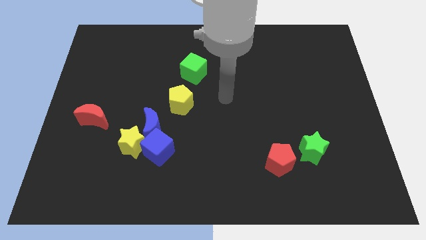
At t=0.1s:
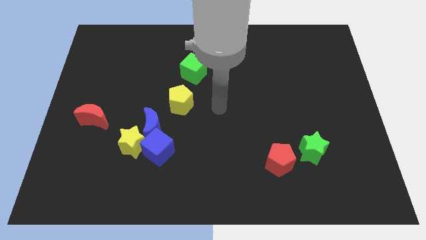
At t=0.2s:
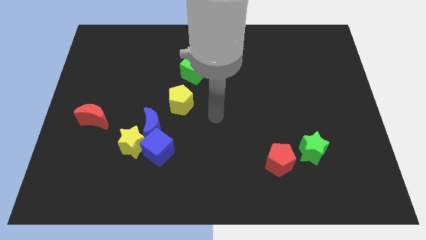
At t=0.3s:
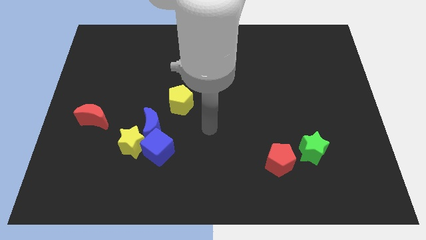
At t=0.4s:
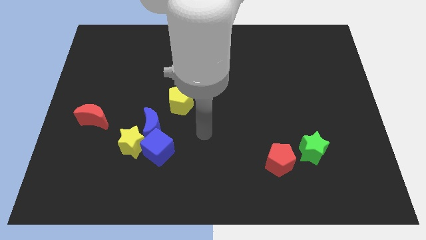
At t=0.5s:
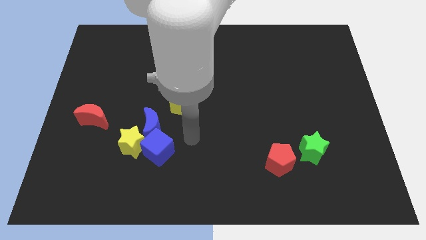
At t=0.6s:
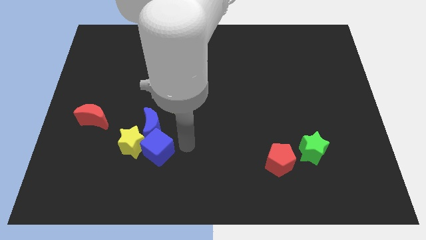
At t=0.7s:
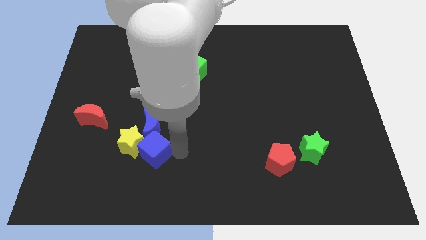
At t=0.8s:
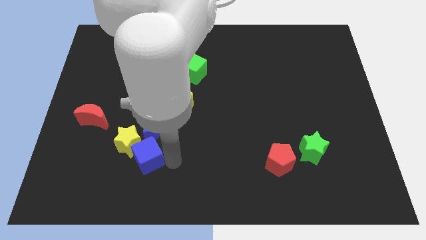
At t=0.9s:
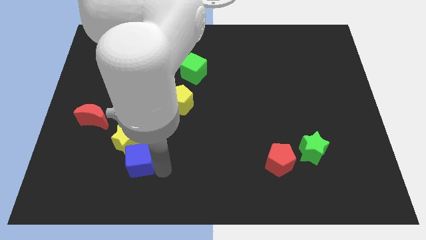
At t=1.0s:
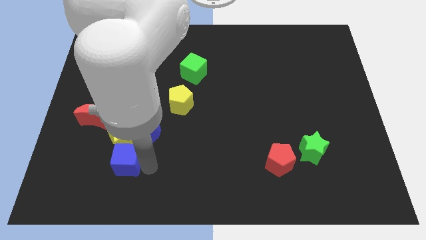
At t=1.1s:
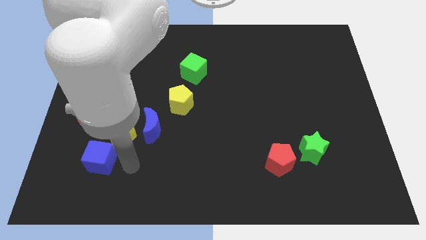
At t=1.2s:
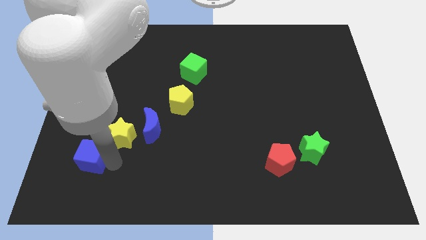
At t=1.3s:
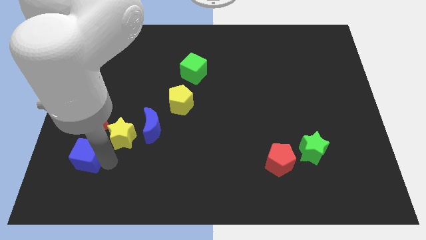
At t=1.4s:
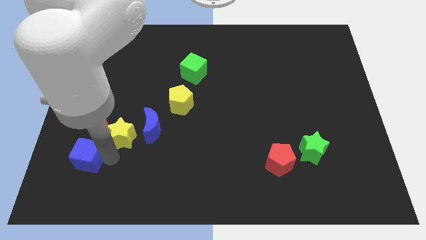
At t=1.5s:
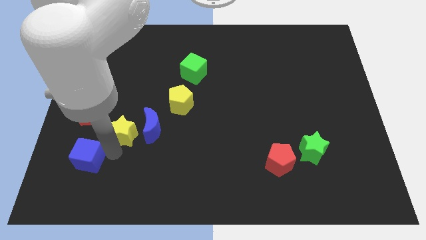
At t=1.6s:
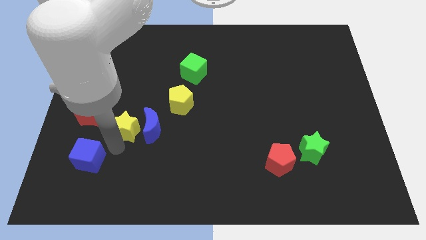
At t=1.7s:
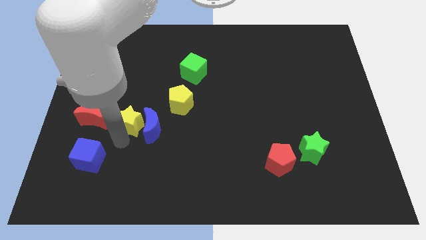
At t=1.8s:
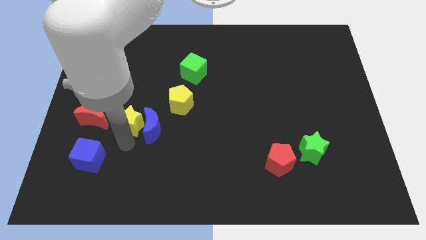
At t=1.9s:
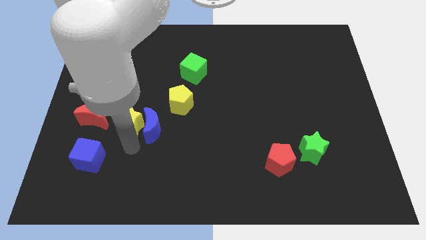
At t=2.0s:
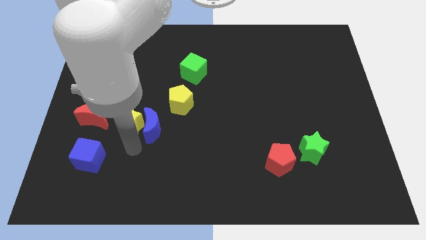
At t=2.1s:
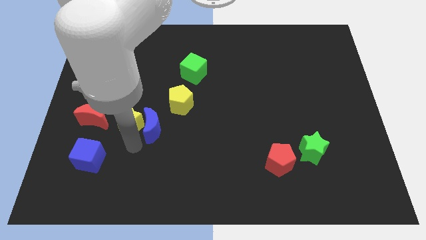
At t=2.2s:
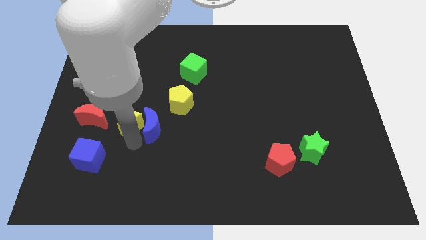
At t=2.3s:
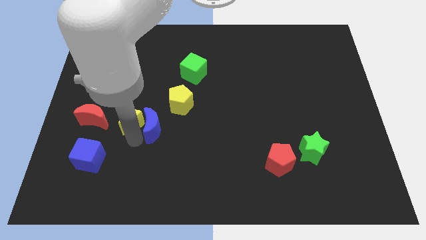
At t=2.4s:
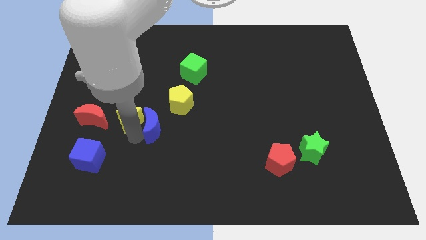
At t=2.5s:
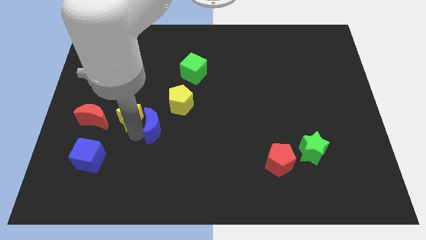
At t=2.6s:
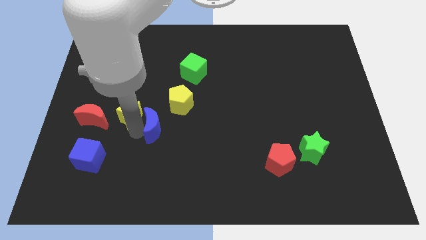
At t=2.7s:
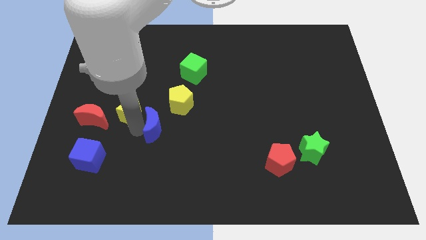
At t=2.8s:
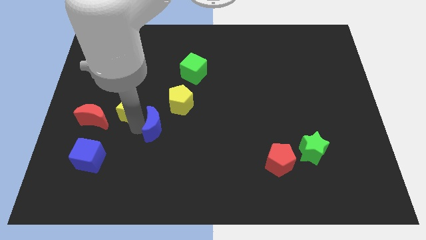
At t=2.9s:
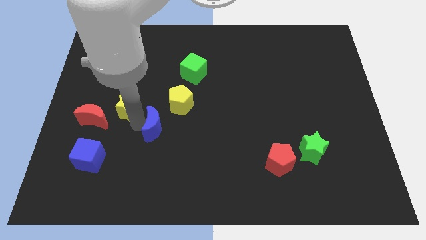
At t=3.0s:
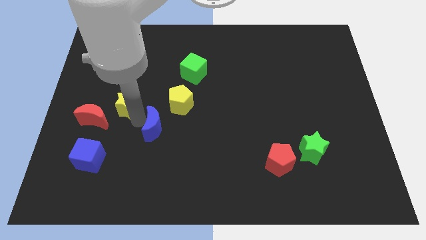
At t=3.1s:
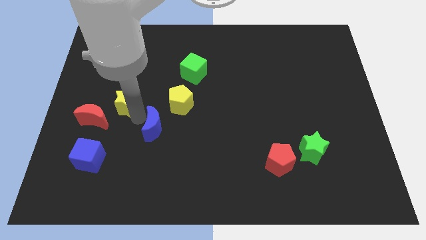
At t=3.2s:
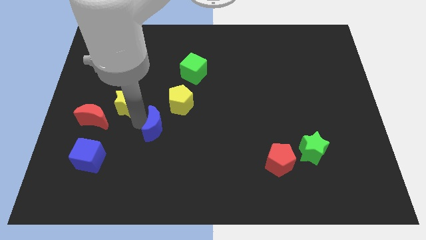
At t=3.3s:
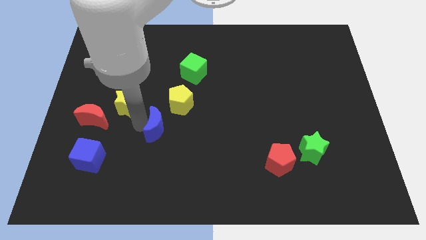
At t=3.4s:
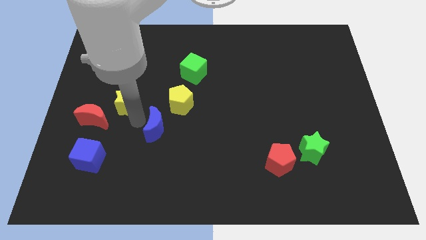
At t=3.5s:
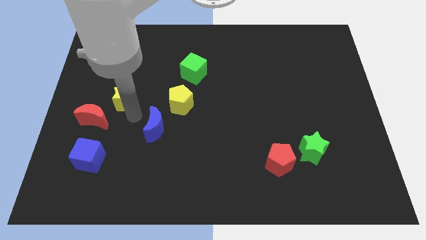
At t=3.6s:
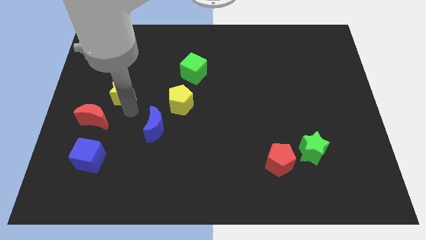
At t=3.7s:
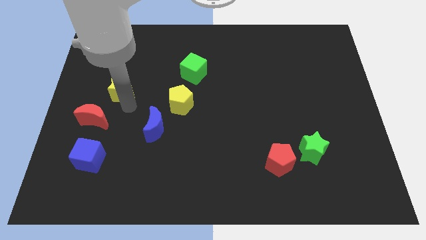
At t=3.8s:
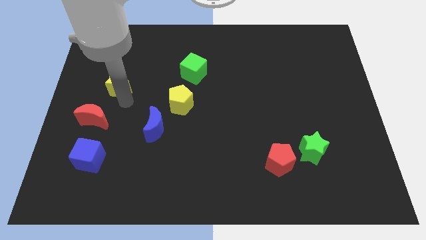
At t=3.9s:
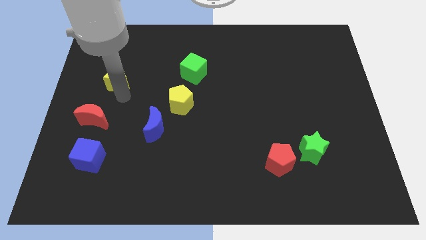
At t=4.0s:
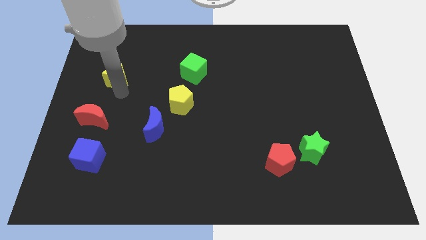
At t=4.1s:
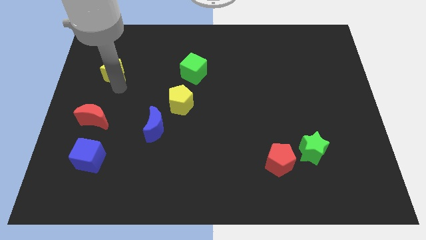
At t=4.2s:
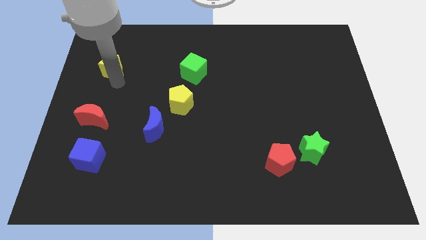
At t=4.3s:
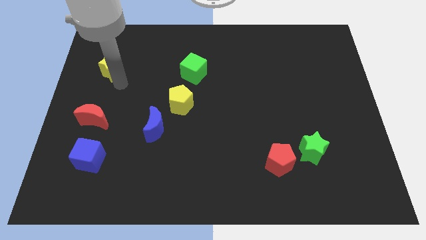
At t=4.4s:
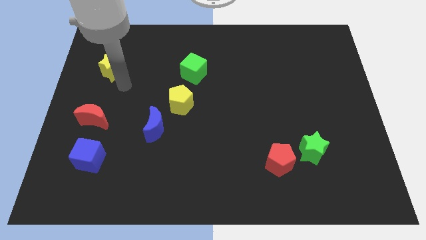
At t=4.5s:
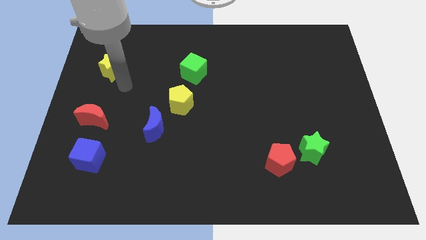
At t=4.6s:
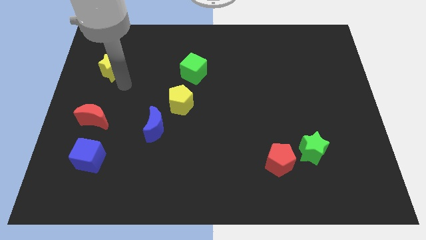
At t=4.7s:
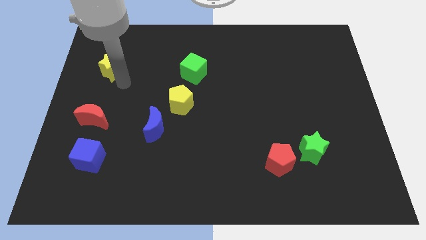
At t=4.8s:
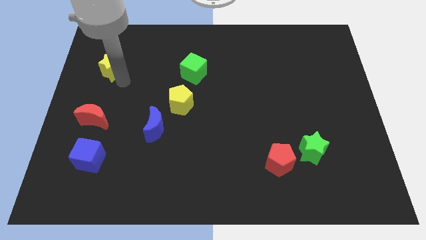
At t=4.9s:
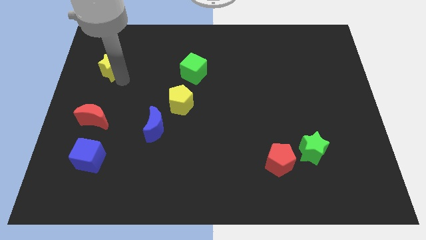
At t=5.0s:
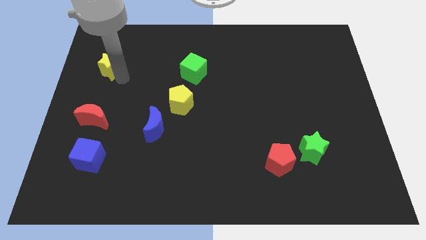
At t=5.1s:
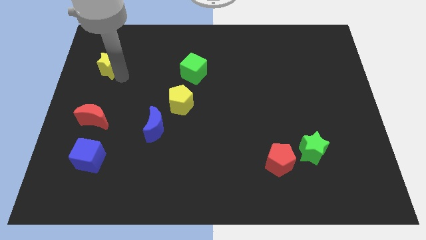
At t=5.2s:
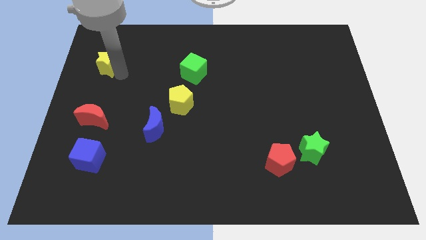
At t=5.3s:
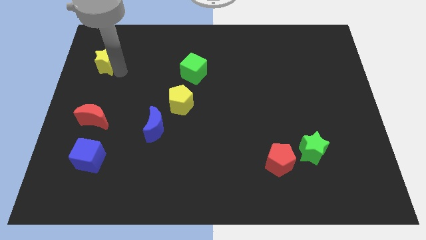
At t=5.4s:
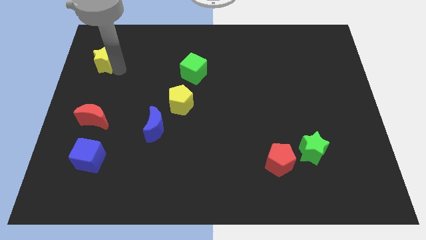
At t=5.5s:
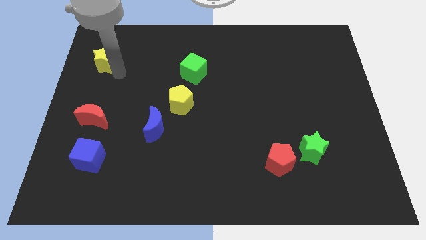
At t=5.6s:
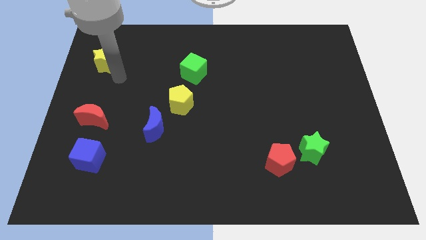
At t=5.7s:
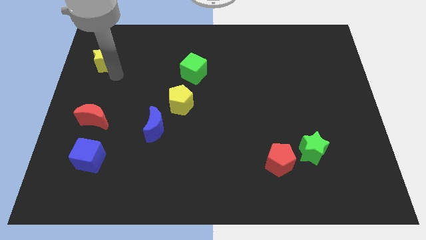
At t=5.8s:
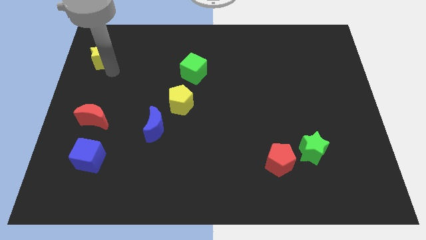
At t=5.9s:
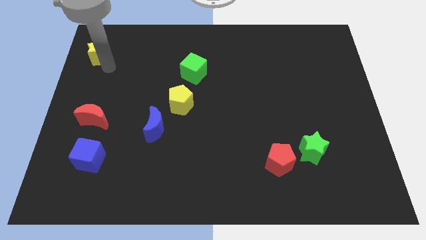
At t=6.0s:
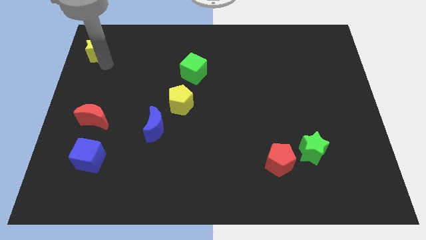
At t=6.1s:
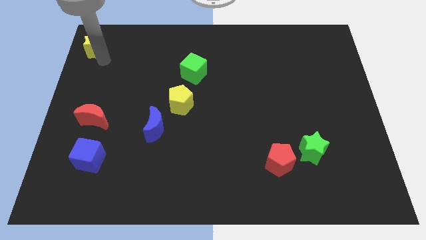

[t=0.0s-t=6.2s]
put the yellow star to the top left of the board
